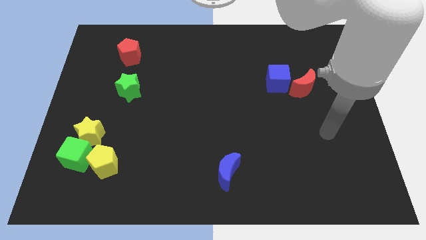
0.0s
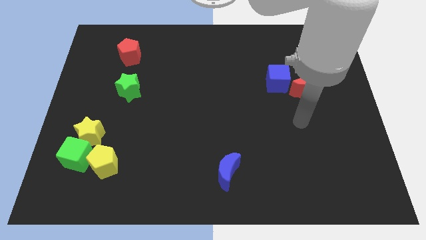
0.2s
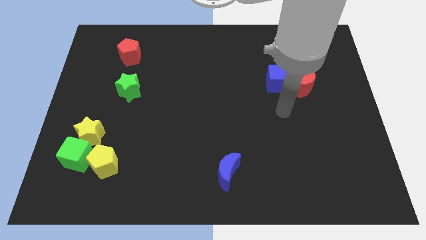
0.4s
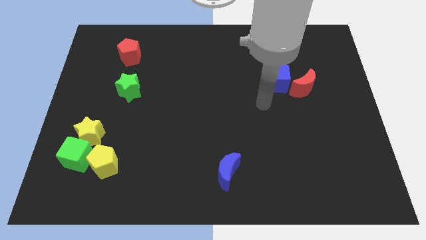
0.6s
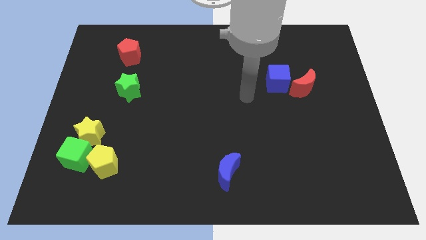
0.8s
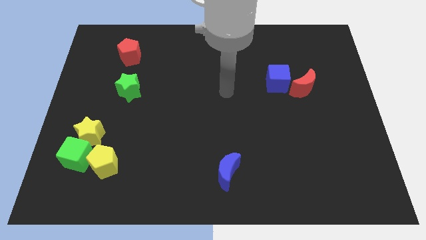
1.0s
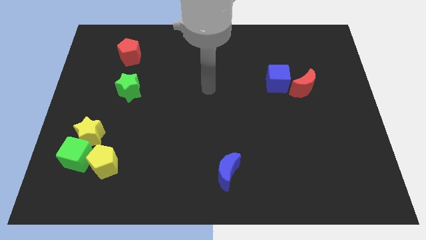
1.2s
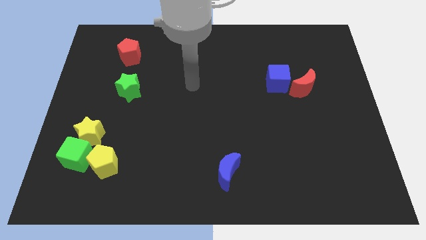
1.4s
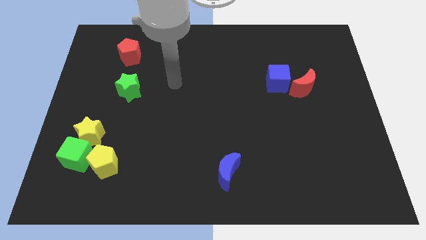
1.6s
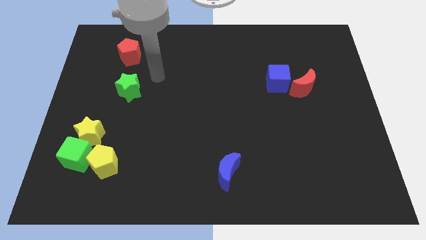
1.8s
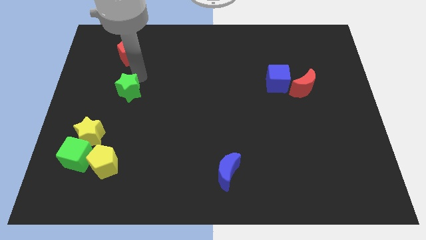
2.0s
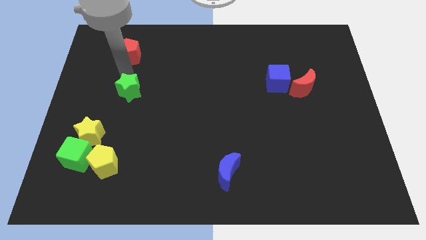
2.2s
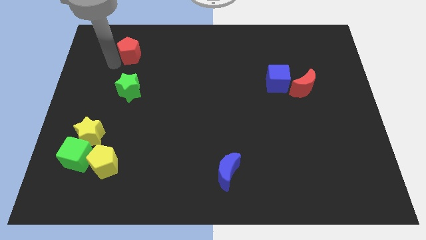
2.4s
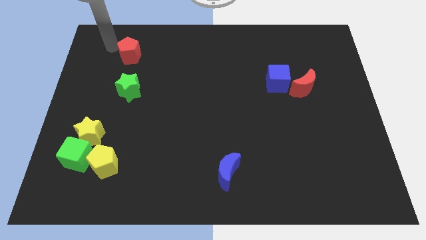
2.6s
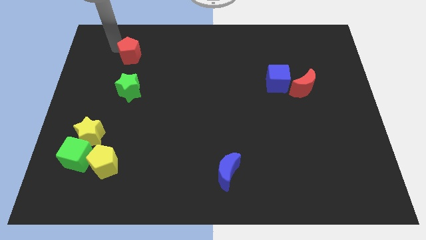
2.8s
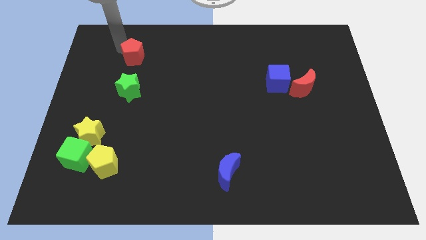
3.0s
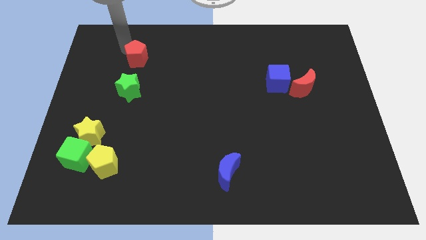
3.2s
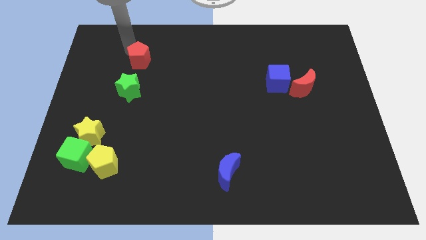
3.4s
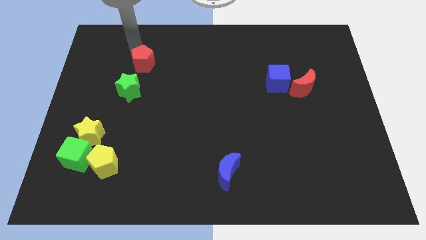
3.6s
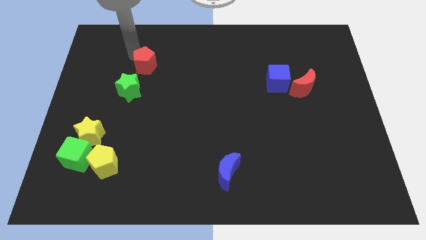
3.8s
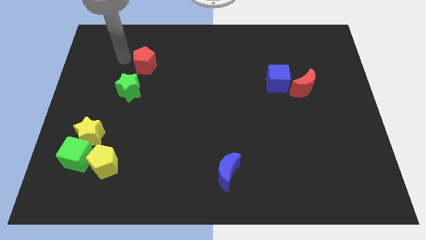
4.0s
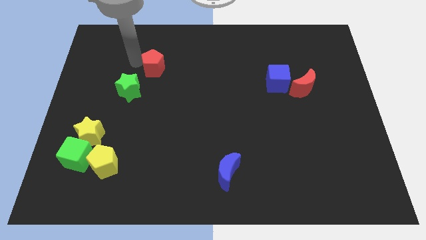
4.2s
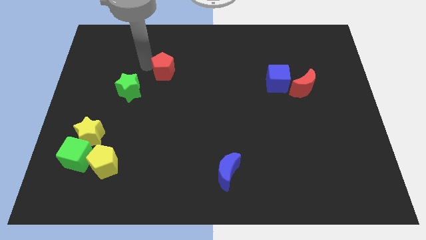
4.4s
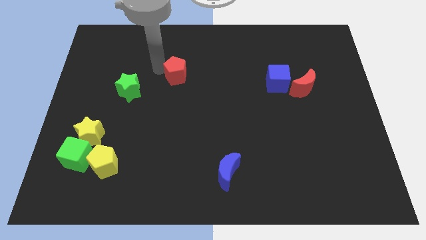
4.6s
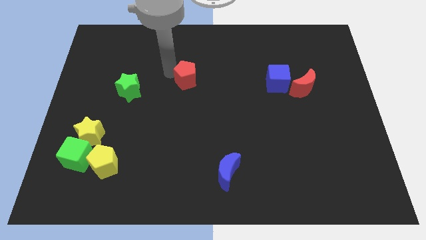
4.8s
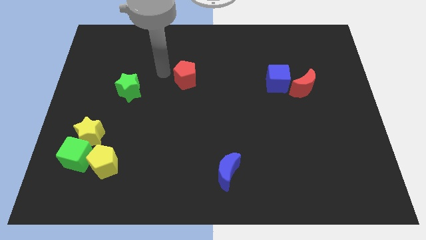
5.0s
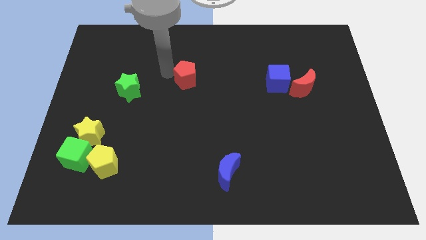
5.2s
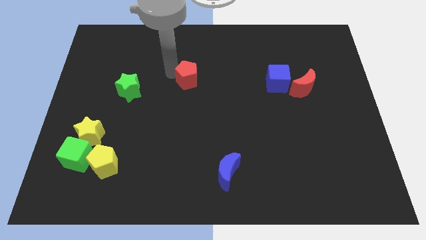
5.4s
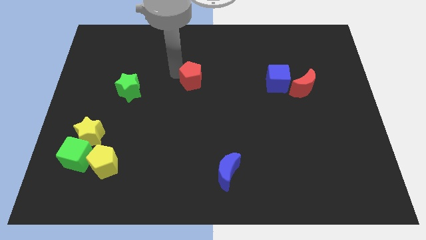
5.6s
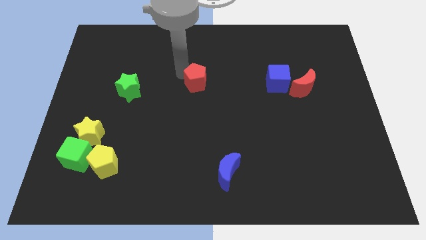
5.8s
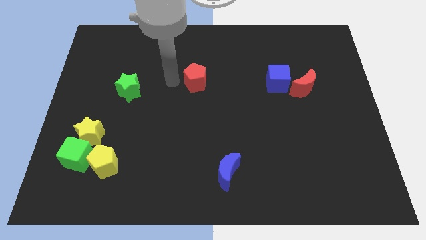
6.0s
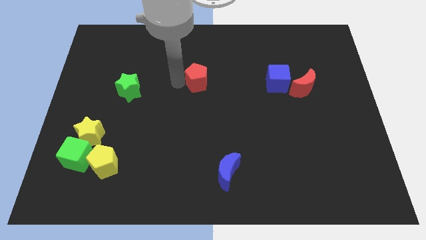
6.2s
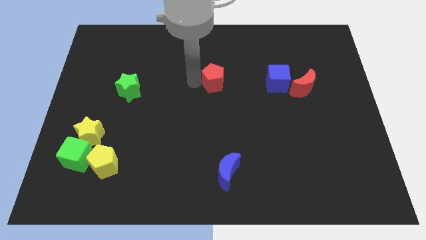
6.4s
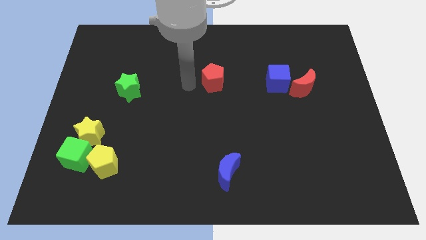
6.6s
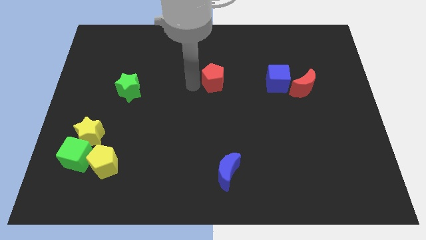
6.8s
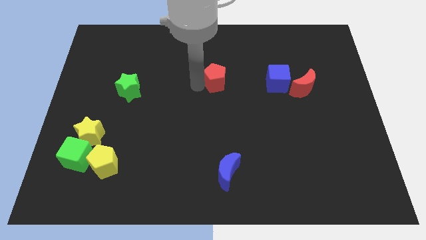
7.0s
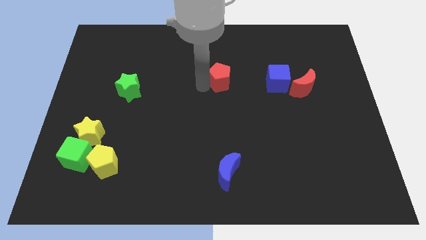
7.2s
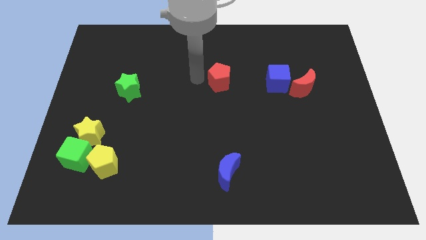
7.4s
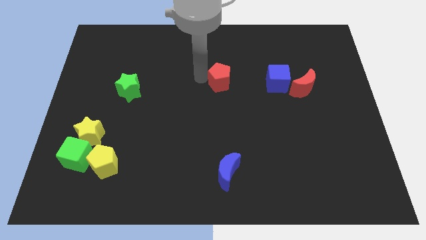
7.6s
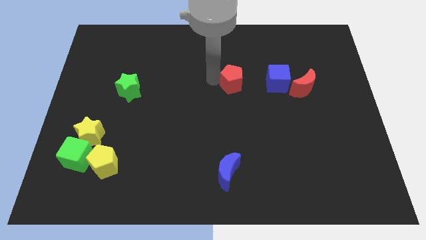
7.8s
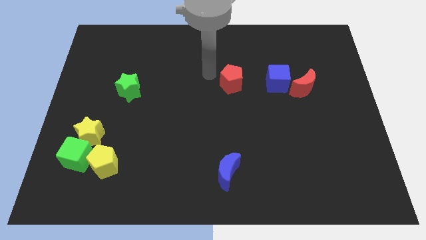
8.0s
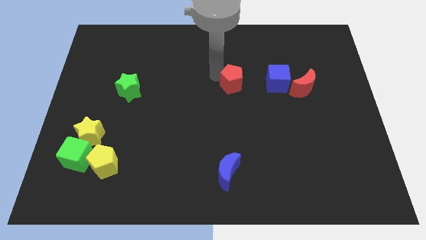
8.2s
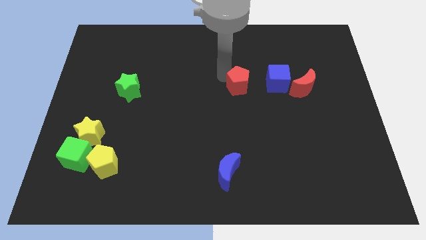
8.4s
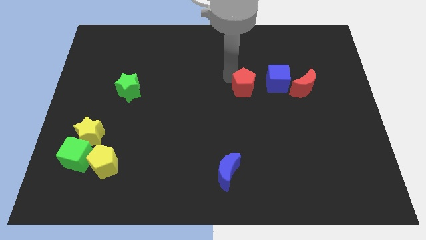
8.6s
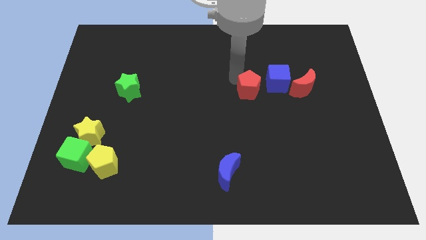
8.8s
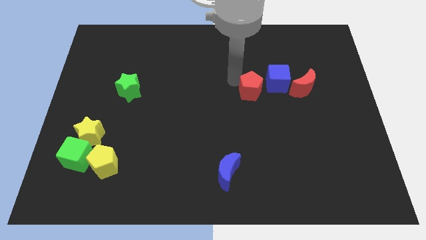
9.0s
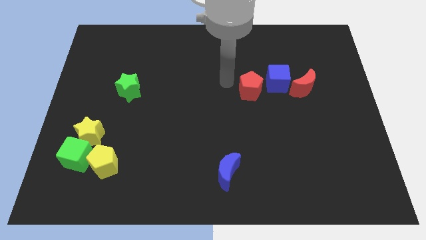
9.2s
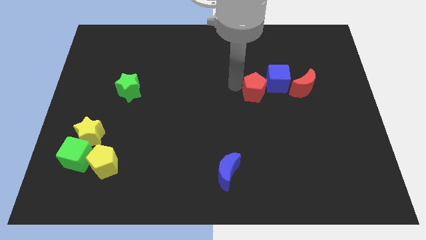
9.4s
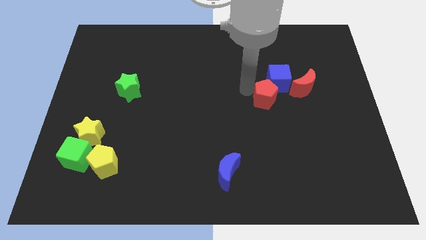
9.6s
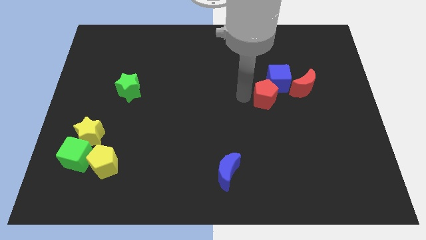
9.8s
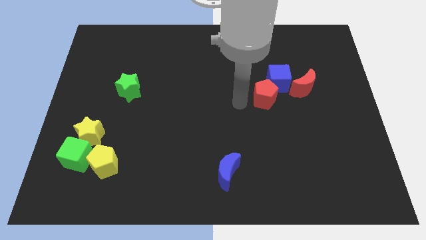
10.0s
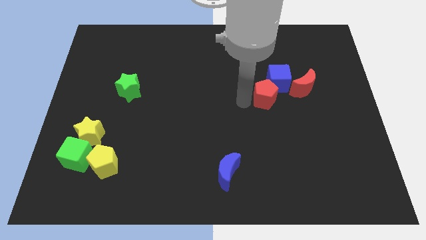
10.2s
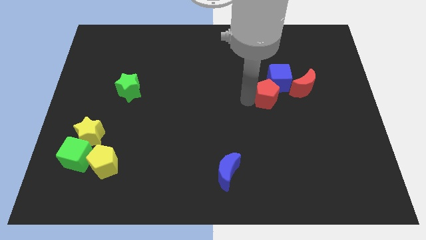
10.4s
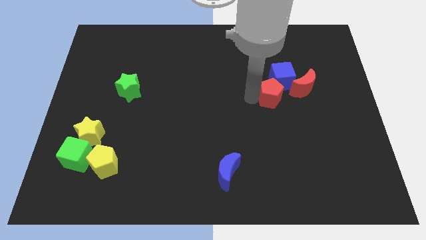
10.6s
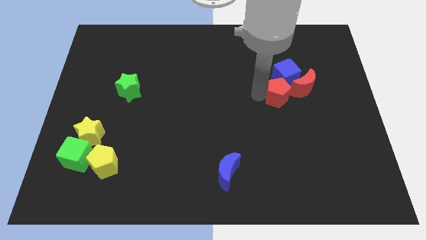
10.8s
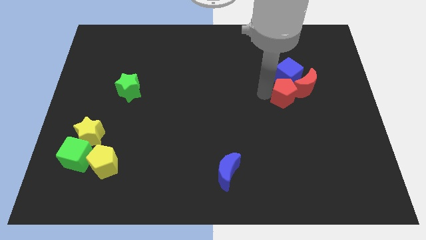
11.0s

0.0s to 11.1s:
push the red pentagon towards the red moon

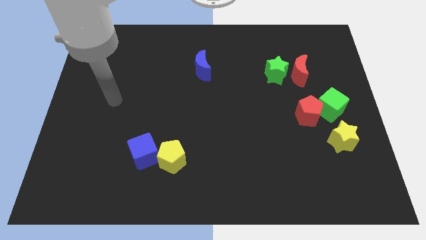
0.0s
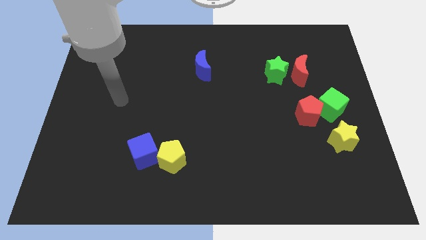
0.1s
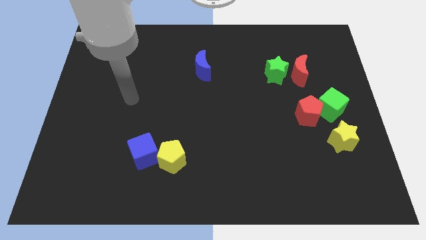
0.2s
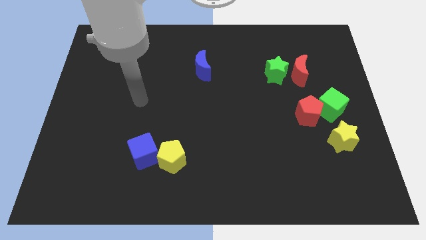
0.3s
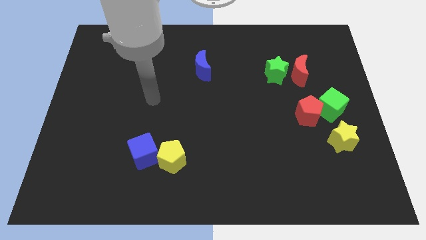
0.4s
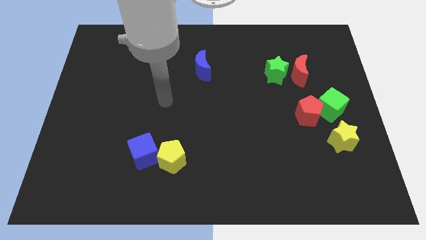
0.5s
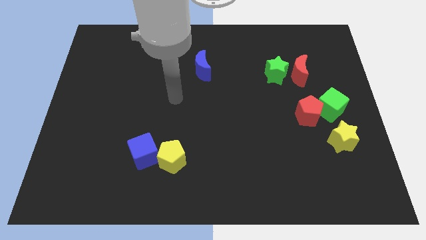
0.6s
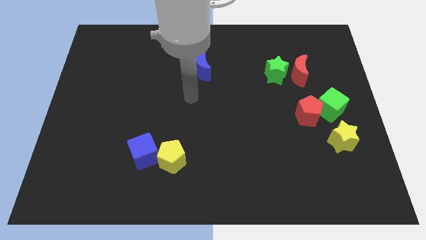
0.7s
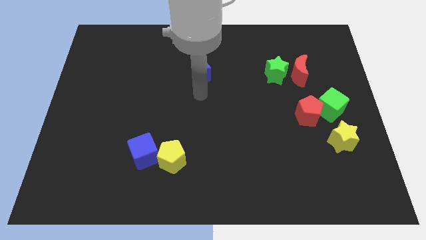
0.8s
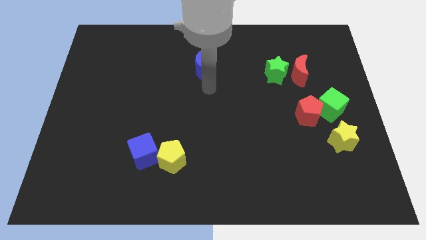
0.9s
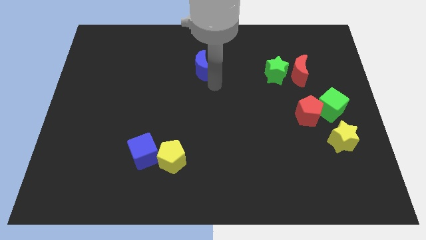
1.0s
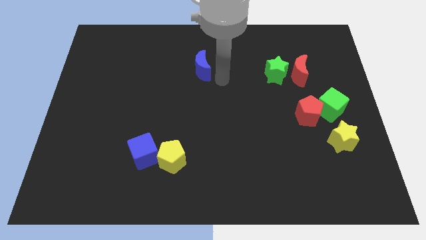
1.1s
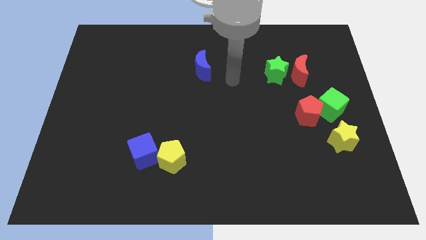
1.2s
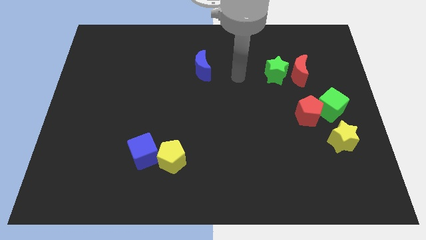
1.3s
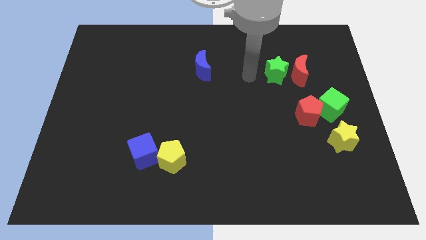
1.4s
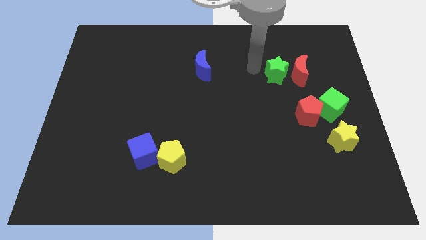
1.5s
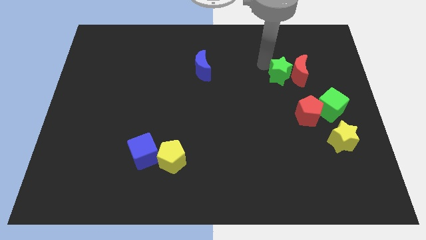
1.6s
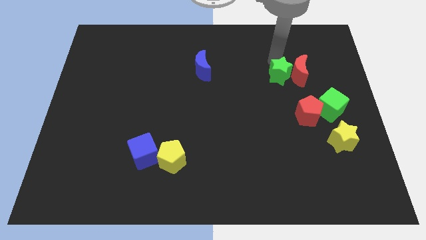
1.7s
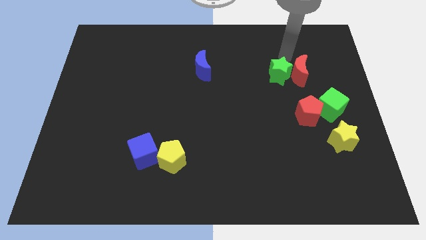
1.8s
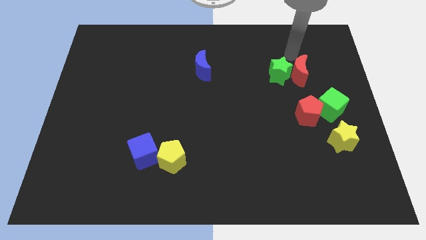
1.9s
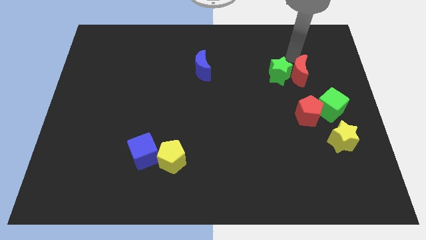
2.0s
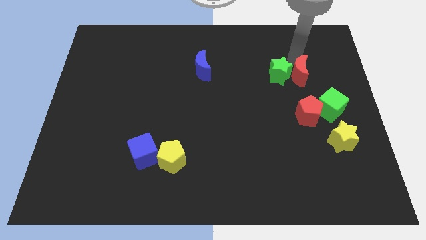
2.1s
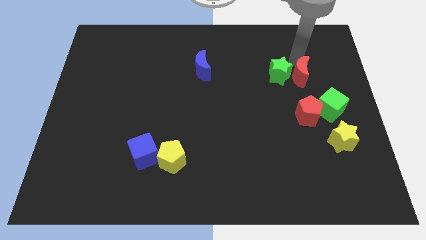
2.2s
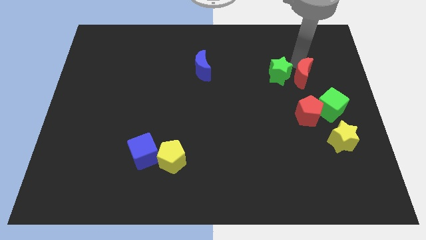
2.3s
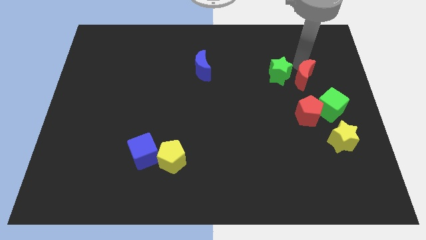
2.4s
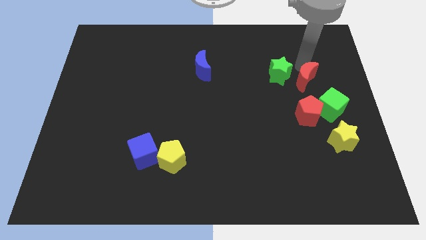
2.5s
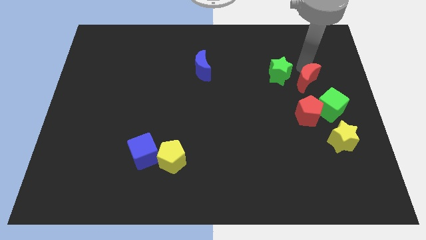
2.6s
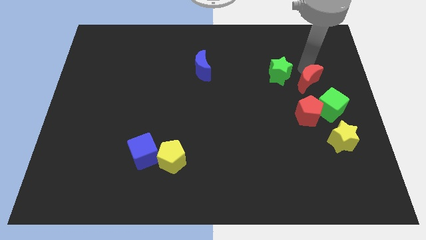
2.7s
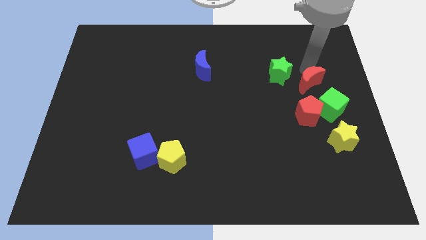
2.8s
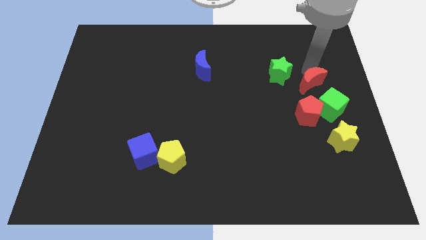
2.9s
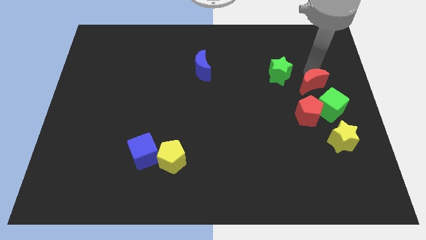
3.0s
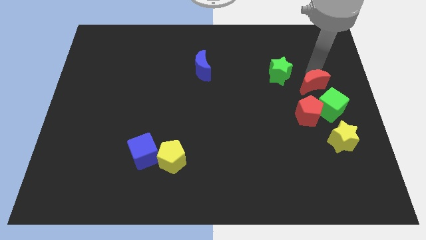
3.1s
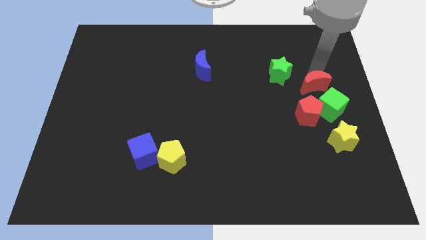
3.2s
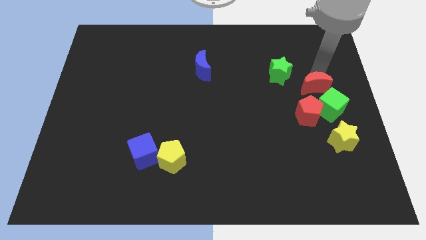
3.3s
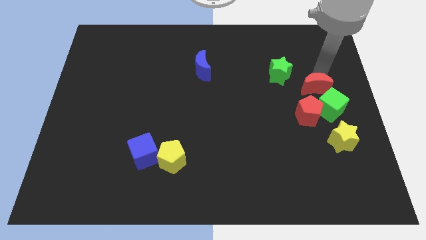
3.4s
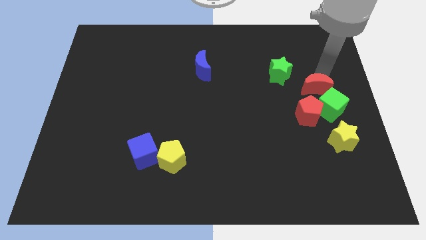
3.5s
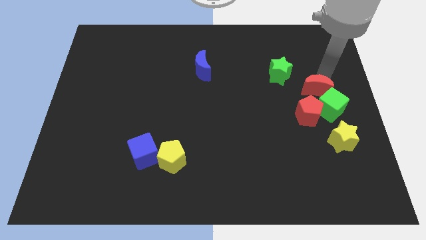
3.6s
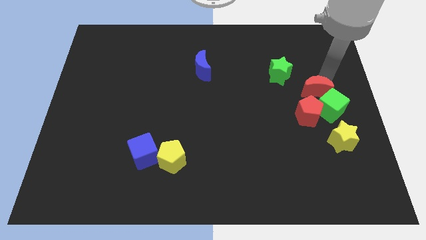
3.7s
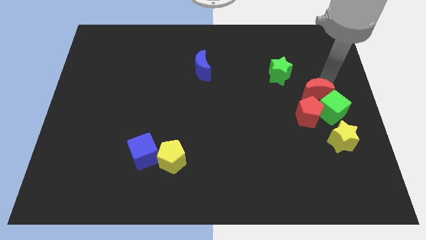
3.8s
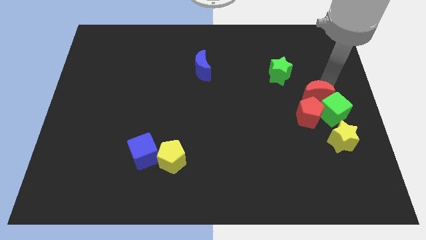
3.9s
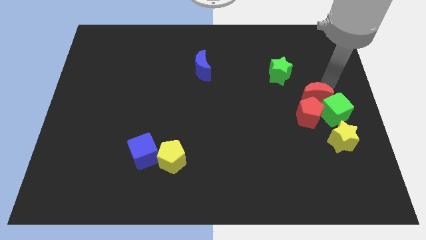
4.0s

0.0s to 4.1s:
put the red moon towards the red pentagon
